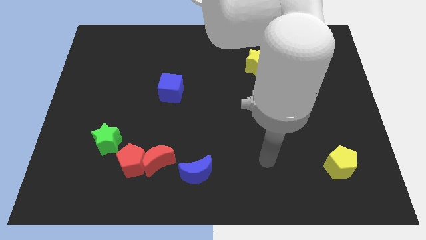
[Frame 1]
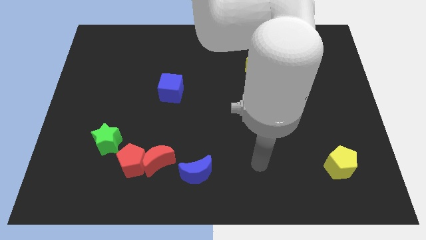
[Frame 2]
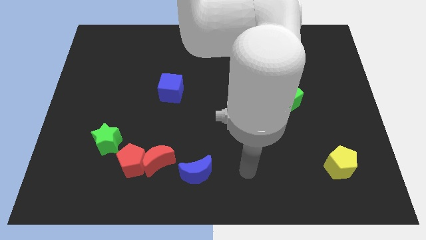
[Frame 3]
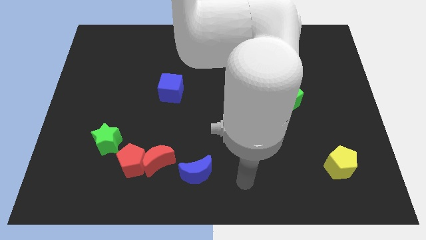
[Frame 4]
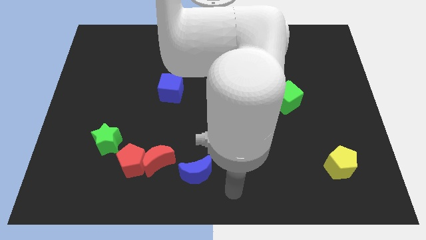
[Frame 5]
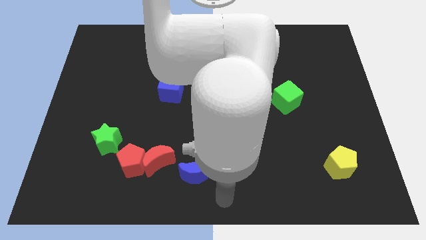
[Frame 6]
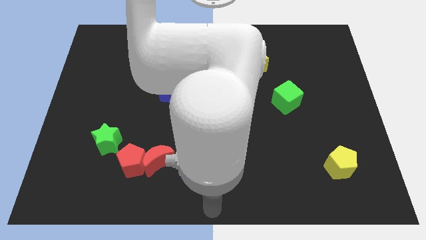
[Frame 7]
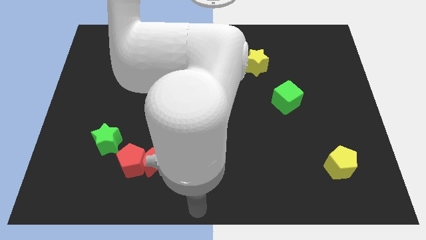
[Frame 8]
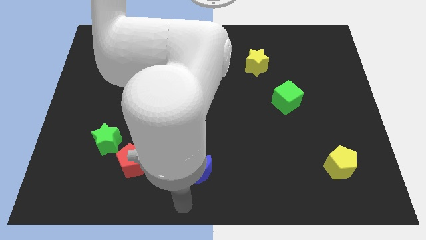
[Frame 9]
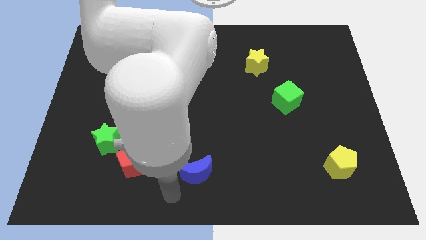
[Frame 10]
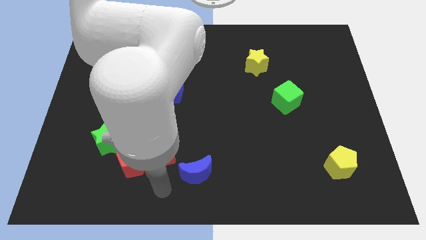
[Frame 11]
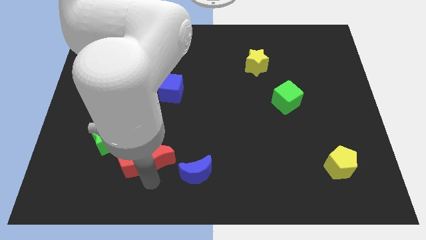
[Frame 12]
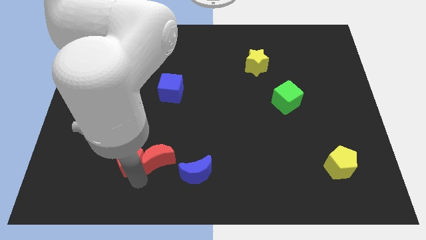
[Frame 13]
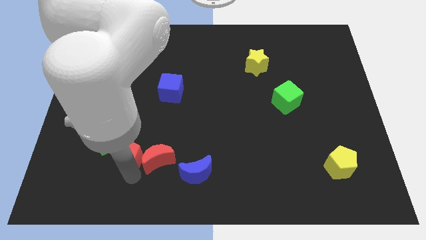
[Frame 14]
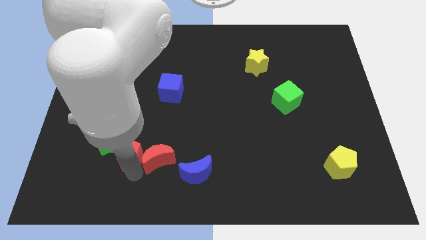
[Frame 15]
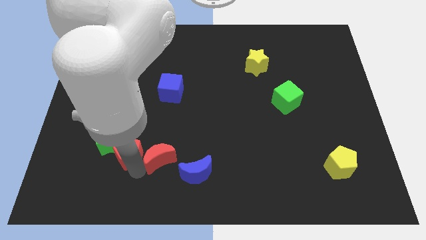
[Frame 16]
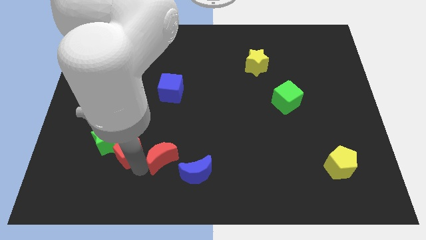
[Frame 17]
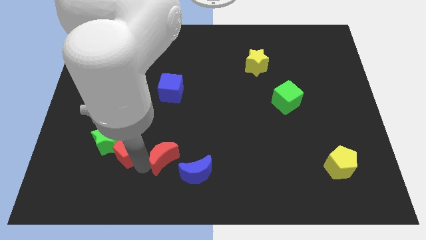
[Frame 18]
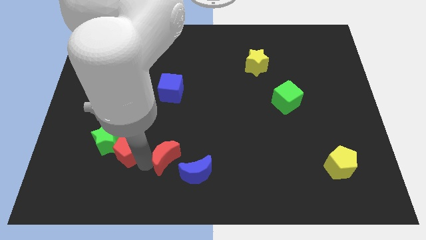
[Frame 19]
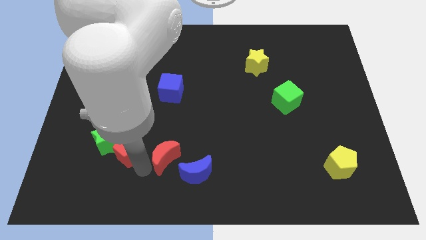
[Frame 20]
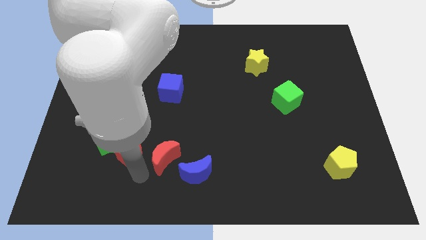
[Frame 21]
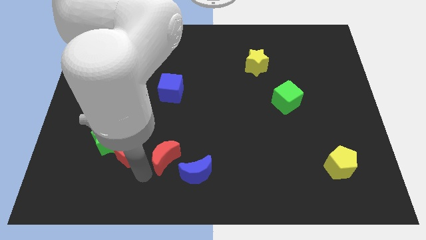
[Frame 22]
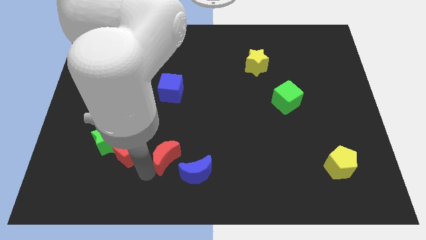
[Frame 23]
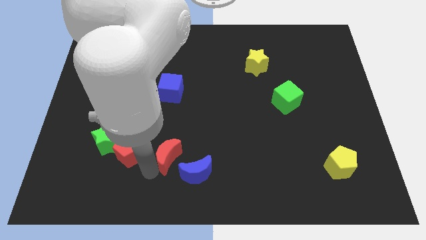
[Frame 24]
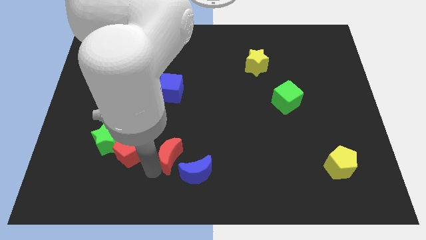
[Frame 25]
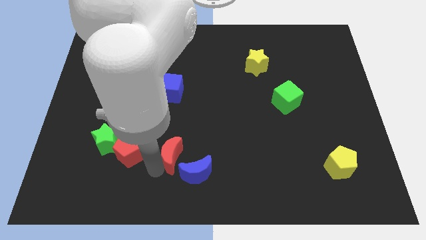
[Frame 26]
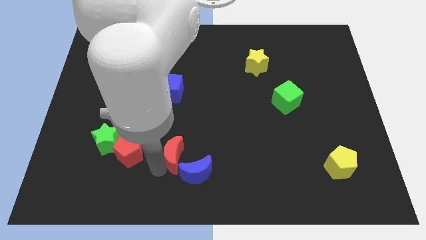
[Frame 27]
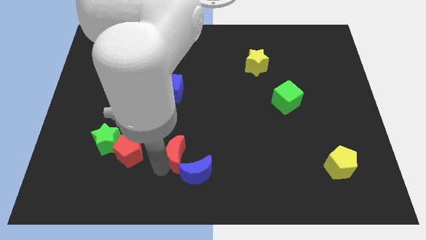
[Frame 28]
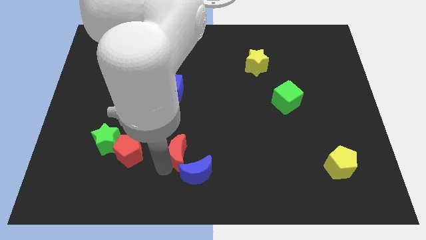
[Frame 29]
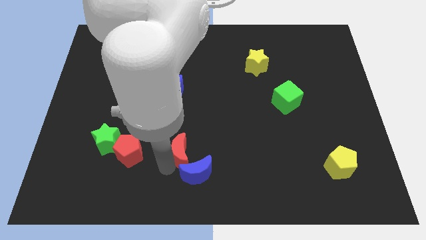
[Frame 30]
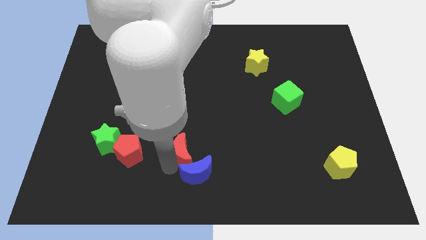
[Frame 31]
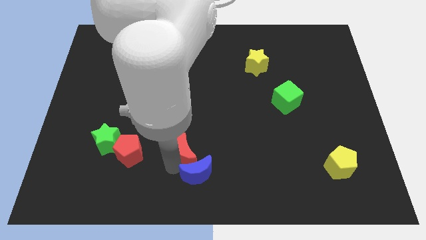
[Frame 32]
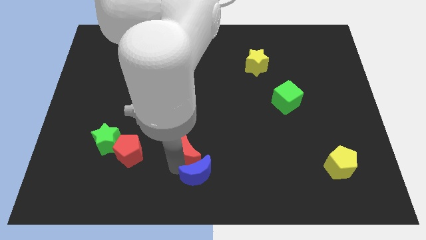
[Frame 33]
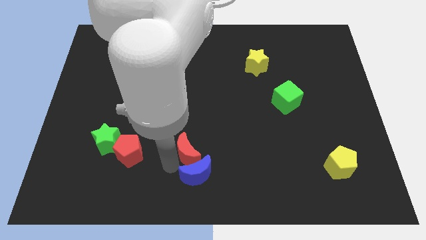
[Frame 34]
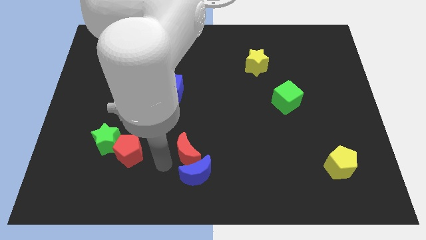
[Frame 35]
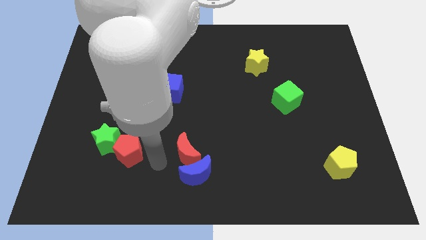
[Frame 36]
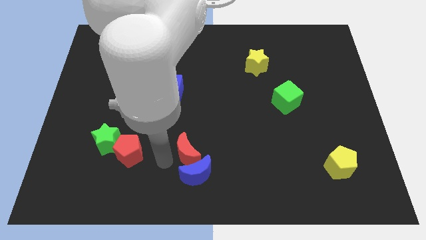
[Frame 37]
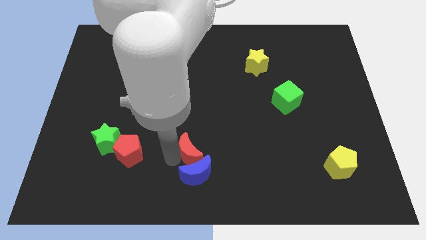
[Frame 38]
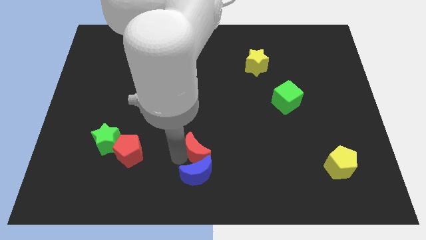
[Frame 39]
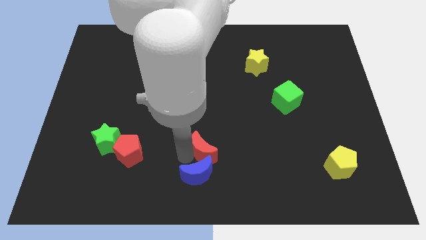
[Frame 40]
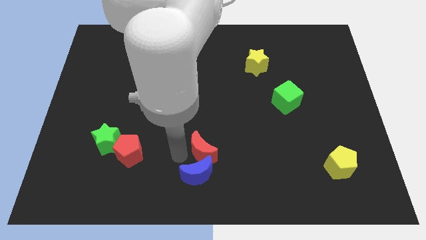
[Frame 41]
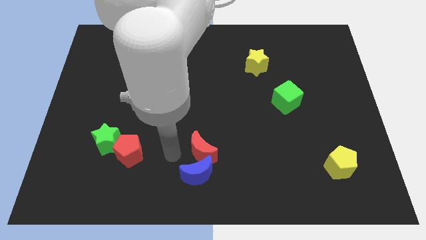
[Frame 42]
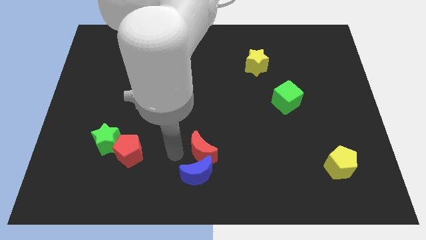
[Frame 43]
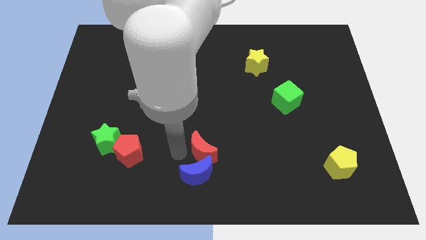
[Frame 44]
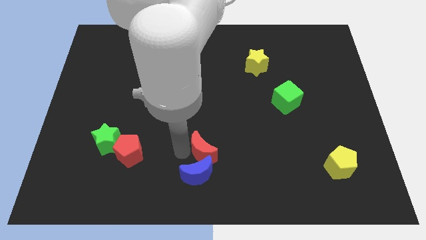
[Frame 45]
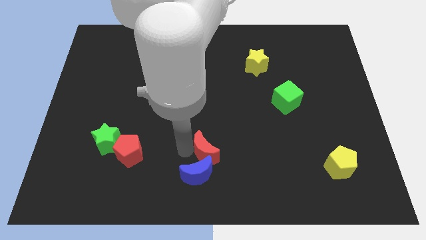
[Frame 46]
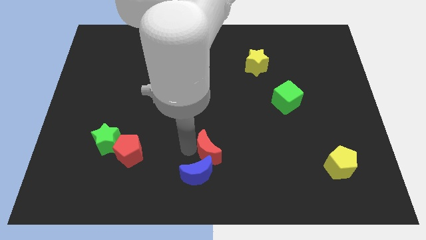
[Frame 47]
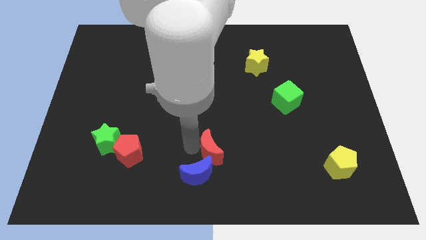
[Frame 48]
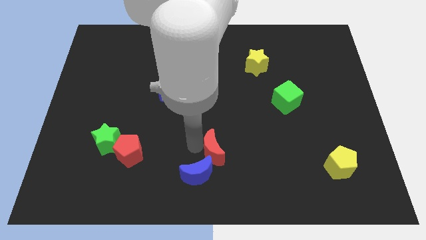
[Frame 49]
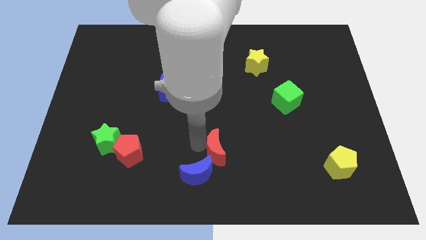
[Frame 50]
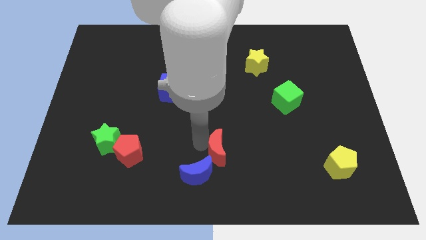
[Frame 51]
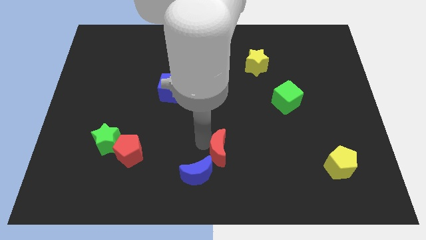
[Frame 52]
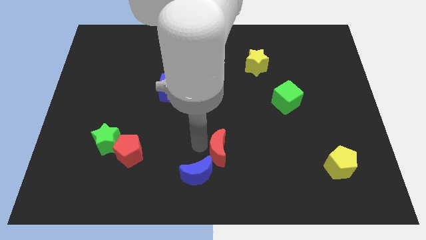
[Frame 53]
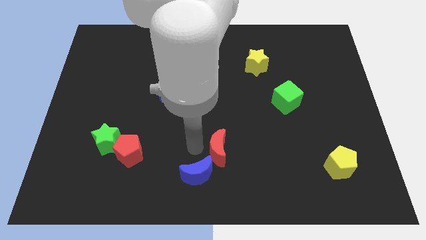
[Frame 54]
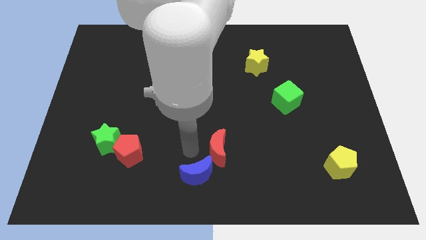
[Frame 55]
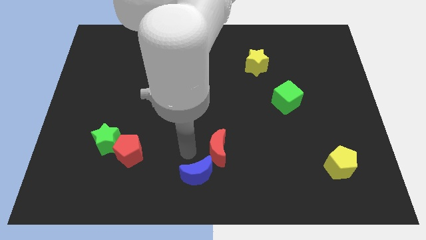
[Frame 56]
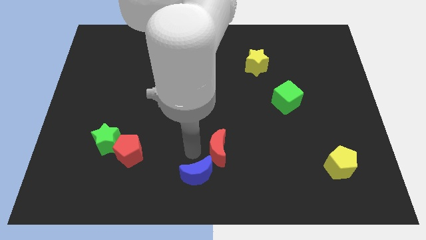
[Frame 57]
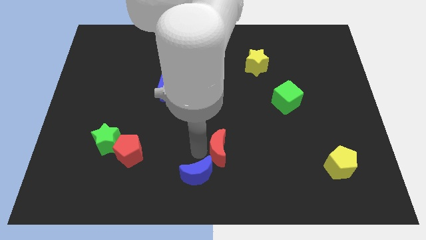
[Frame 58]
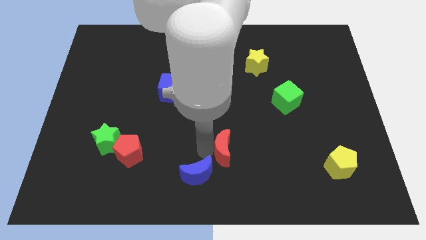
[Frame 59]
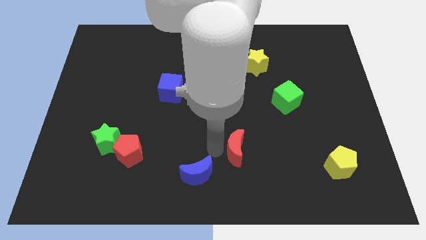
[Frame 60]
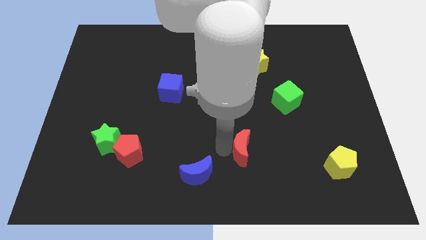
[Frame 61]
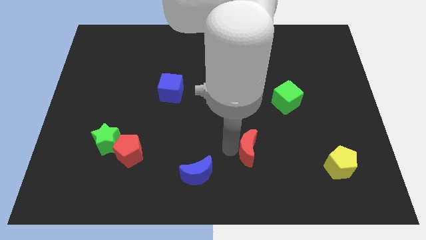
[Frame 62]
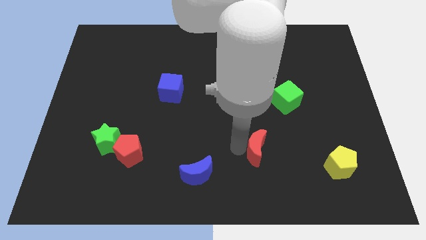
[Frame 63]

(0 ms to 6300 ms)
slide the red moon to the right

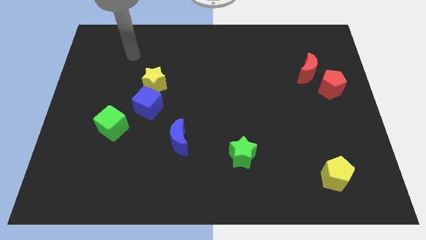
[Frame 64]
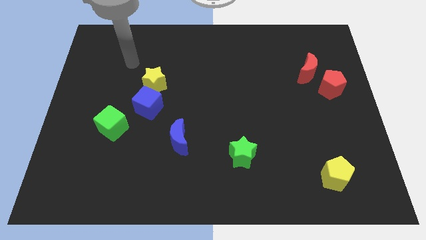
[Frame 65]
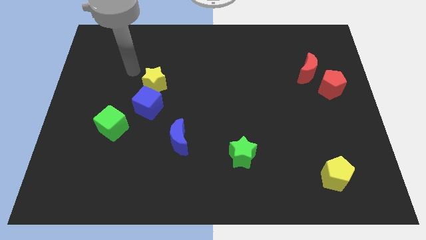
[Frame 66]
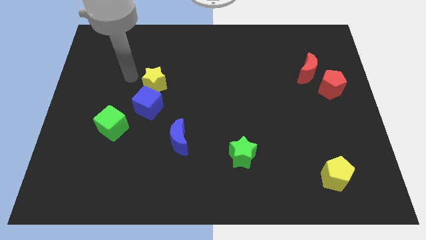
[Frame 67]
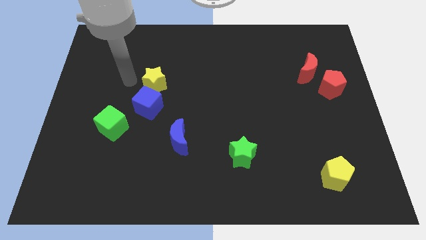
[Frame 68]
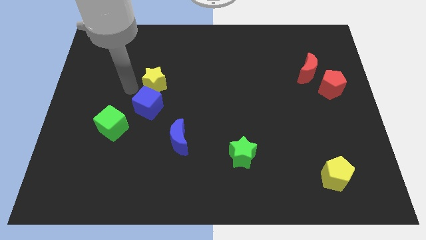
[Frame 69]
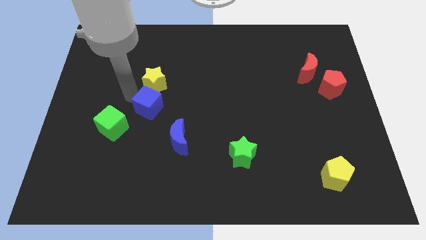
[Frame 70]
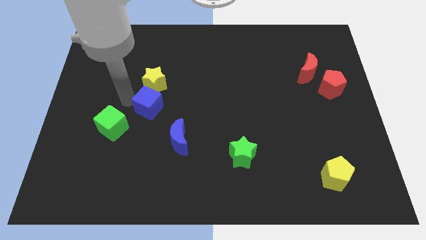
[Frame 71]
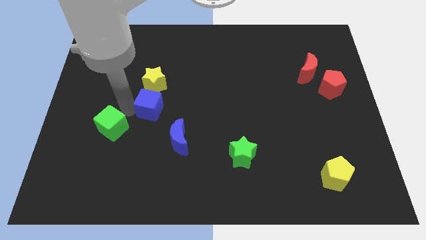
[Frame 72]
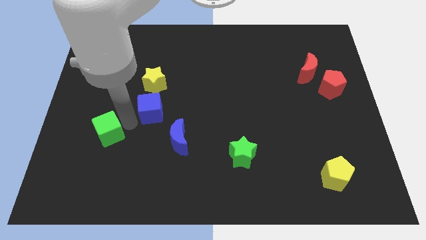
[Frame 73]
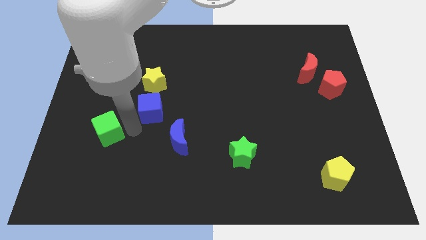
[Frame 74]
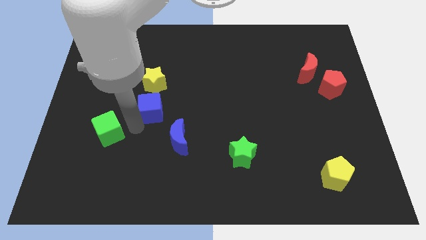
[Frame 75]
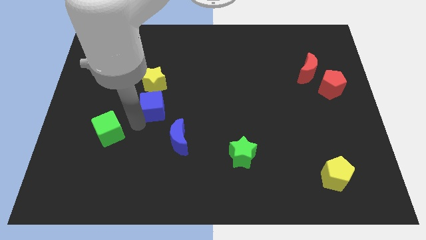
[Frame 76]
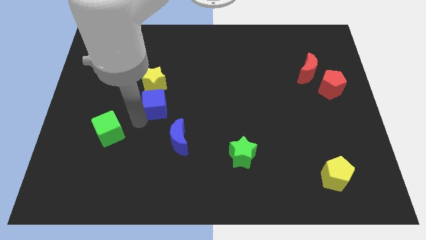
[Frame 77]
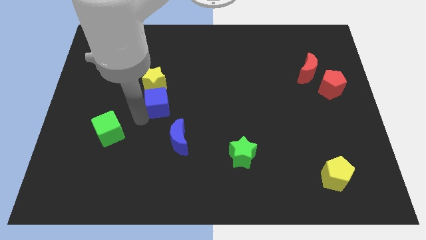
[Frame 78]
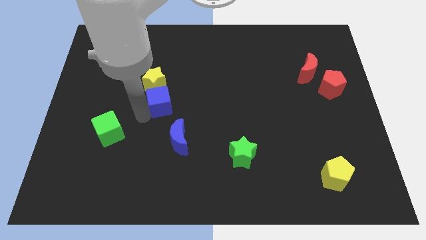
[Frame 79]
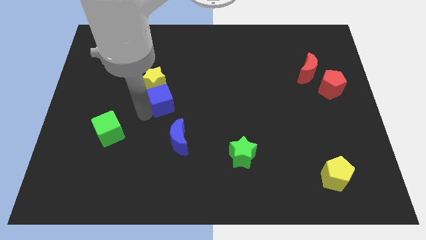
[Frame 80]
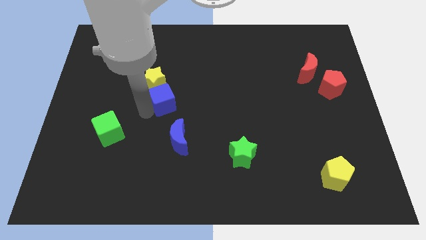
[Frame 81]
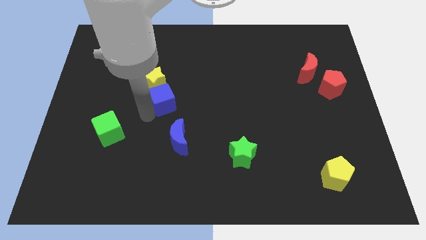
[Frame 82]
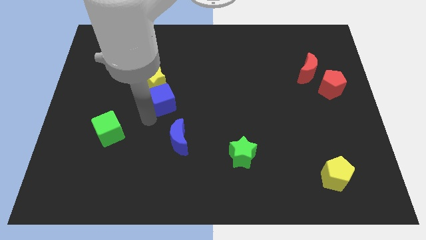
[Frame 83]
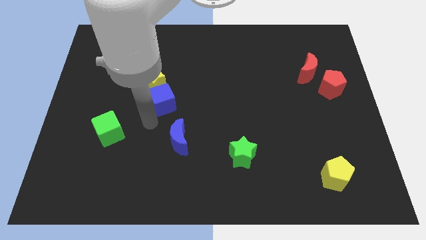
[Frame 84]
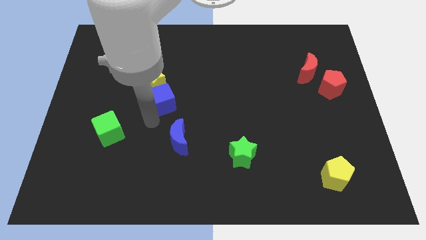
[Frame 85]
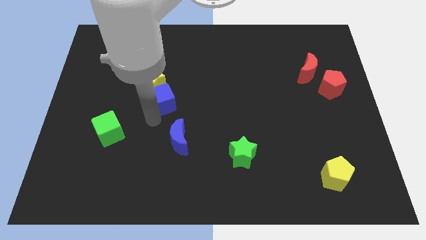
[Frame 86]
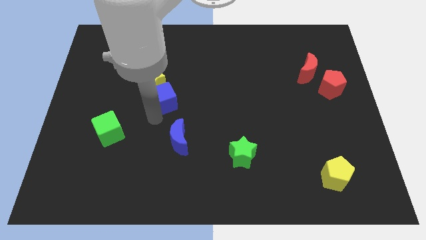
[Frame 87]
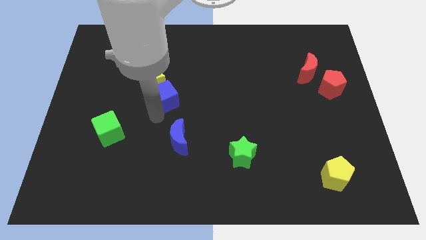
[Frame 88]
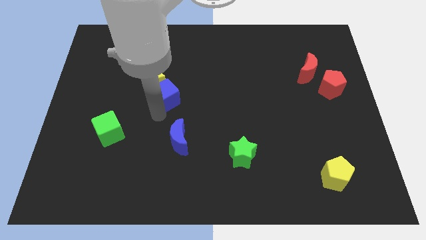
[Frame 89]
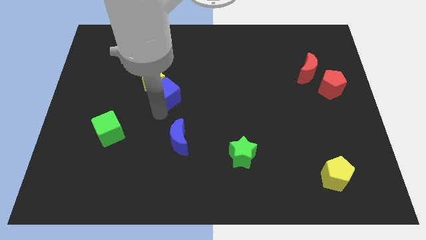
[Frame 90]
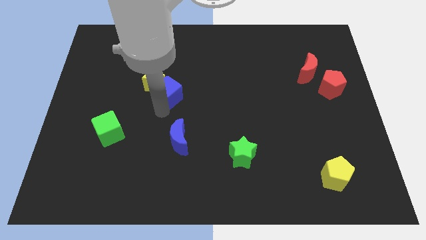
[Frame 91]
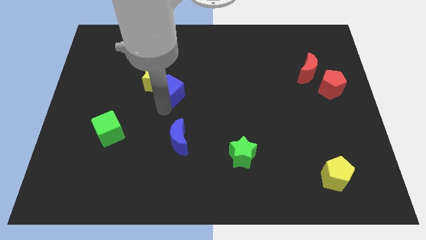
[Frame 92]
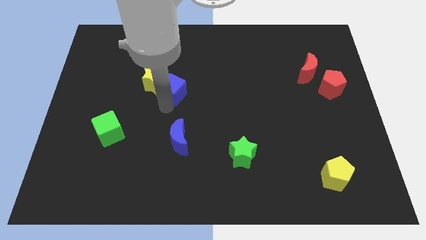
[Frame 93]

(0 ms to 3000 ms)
move the blue cube somewhat diagonally up and right
